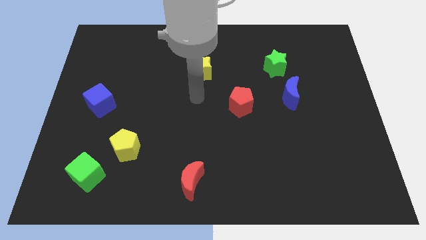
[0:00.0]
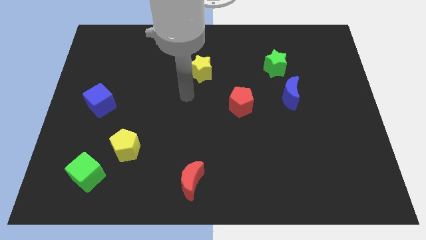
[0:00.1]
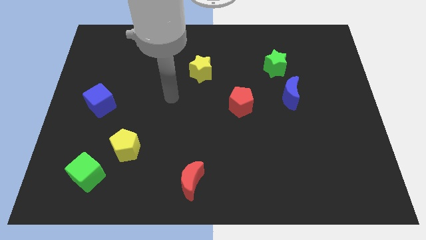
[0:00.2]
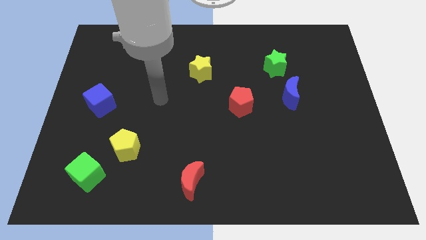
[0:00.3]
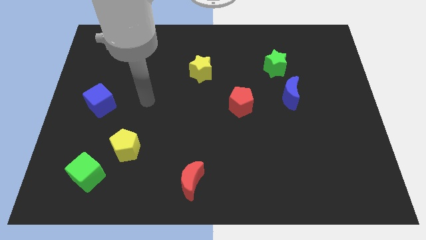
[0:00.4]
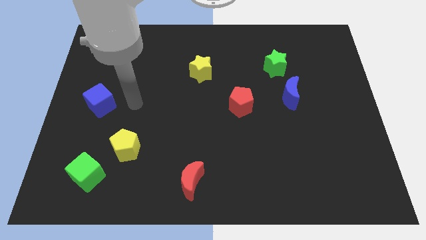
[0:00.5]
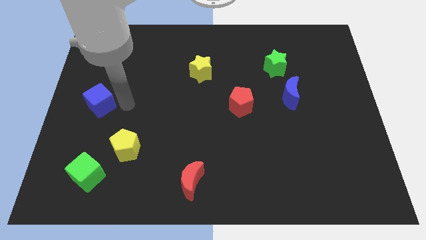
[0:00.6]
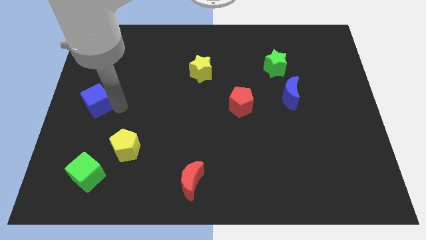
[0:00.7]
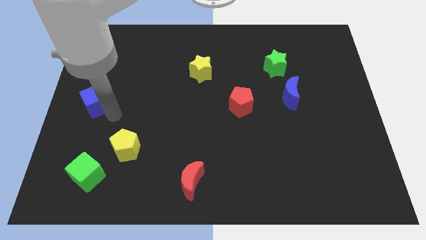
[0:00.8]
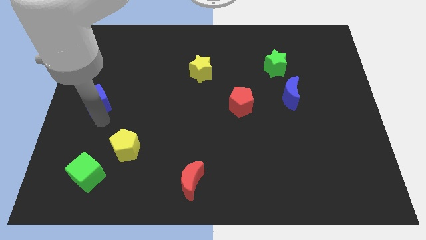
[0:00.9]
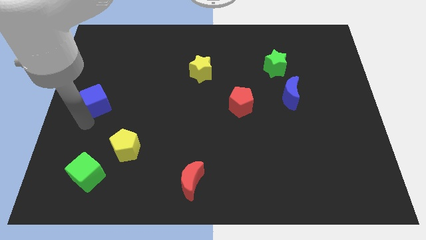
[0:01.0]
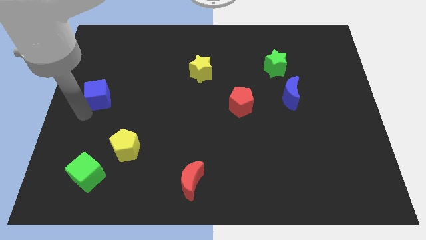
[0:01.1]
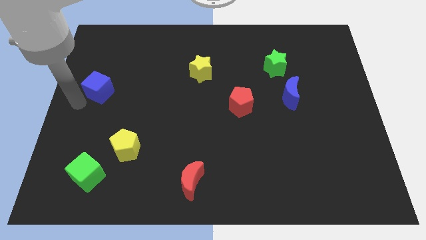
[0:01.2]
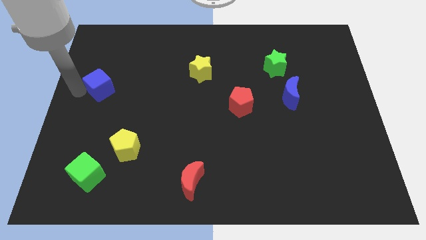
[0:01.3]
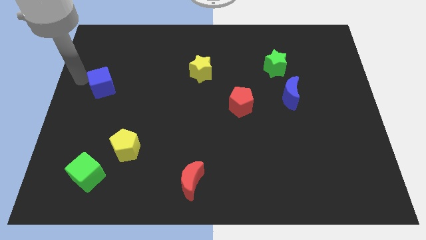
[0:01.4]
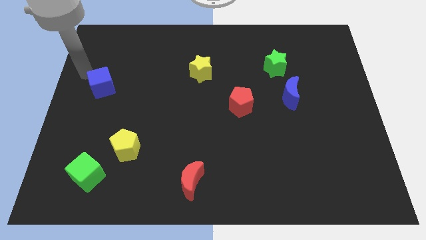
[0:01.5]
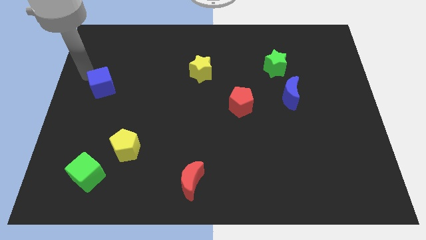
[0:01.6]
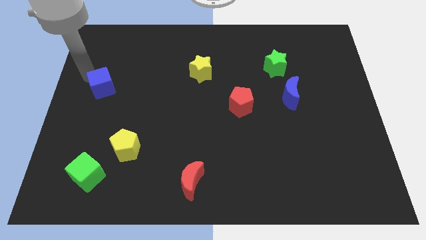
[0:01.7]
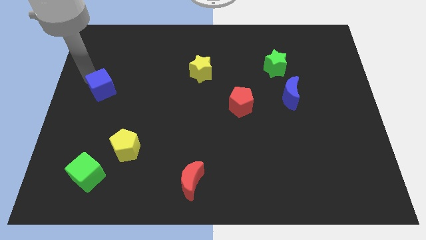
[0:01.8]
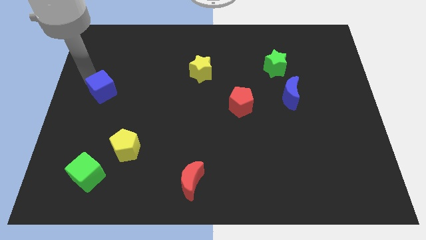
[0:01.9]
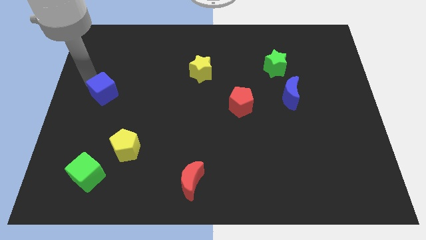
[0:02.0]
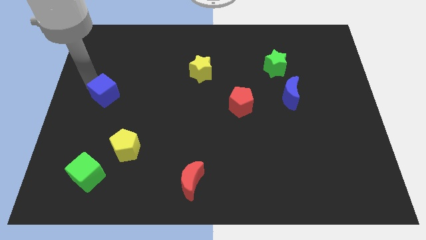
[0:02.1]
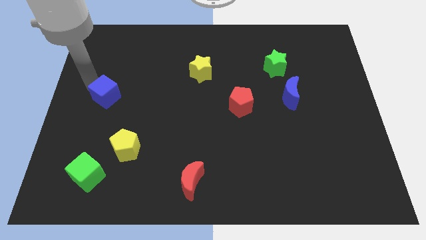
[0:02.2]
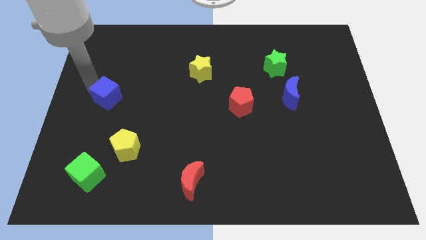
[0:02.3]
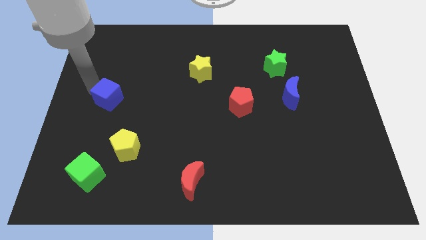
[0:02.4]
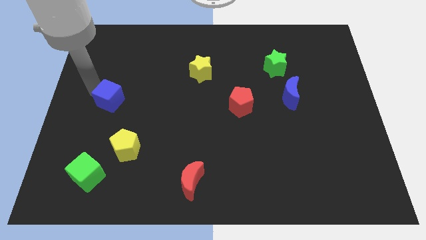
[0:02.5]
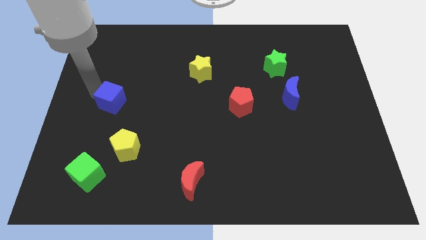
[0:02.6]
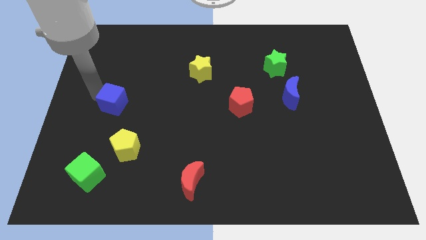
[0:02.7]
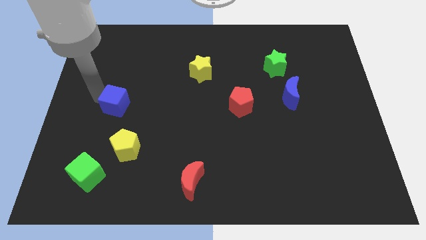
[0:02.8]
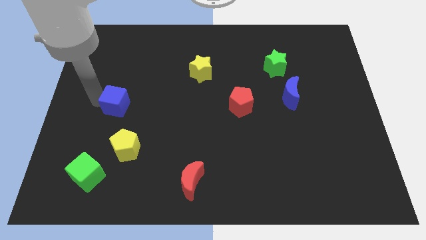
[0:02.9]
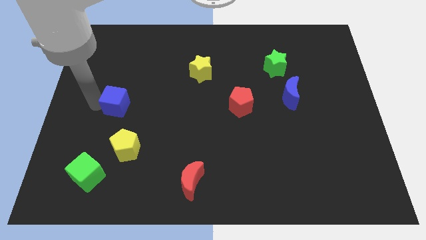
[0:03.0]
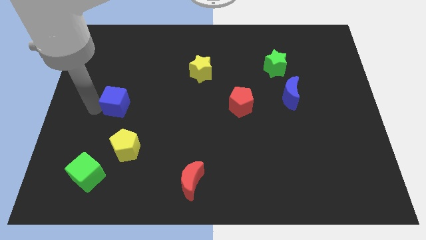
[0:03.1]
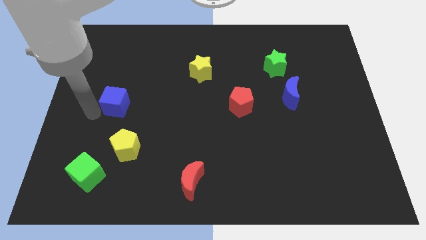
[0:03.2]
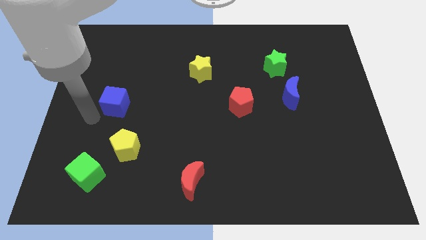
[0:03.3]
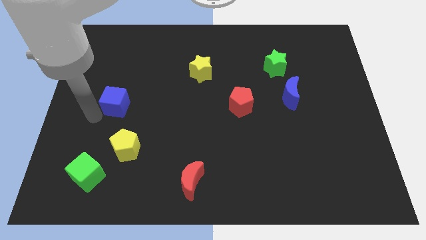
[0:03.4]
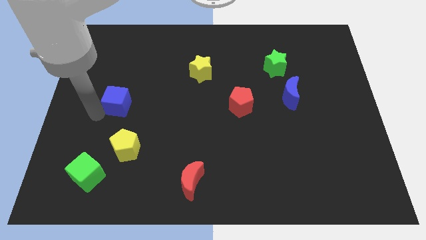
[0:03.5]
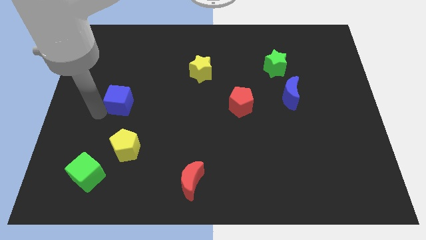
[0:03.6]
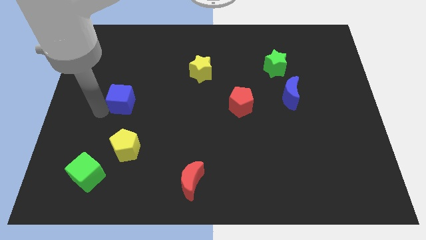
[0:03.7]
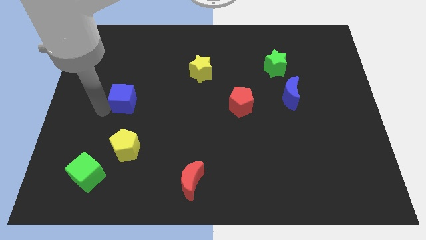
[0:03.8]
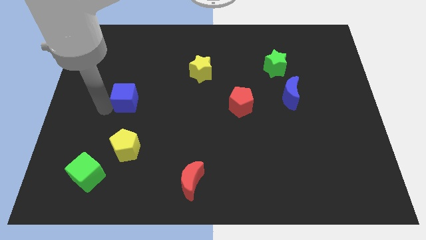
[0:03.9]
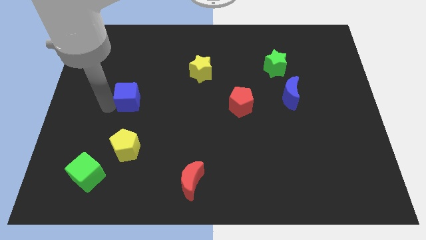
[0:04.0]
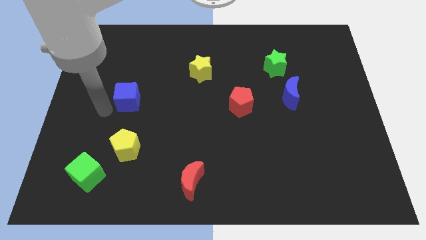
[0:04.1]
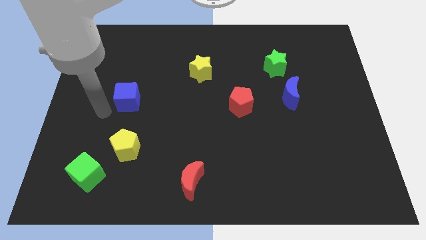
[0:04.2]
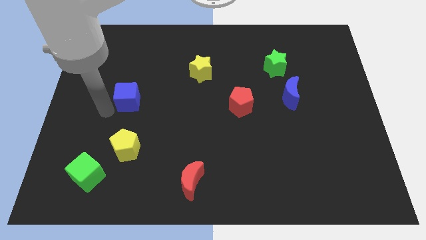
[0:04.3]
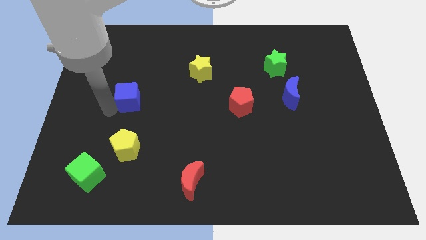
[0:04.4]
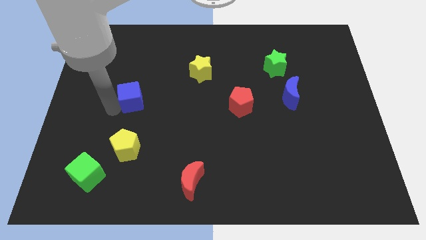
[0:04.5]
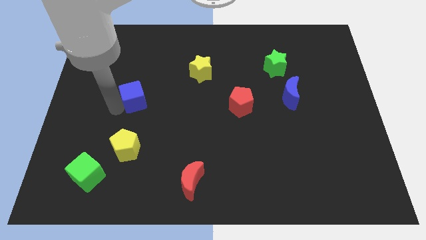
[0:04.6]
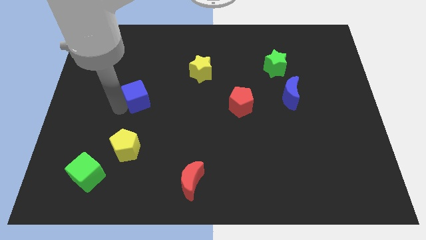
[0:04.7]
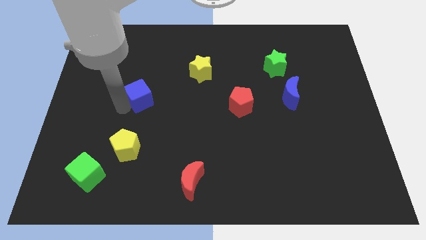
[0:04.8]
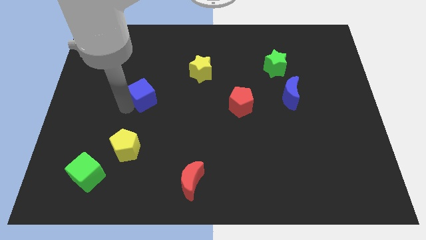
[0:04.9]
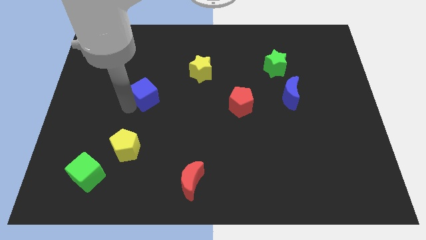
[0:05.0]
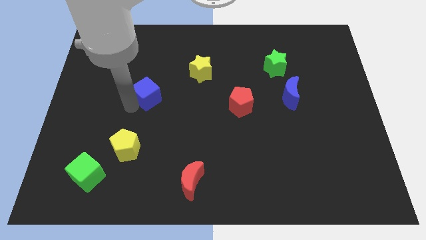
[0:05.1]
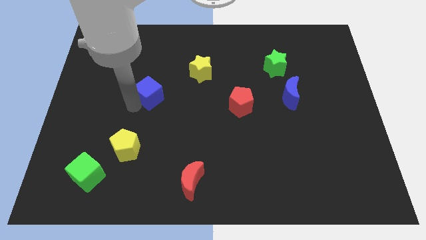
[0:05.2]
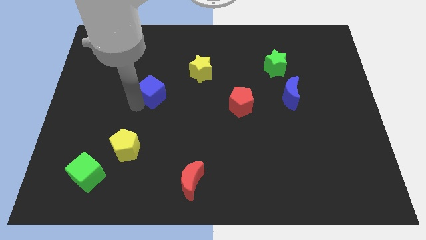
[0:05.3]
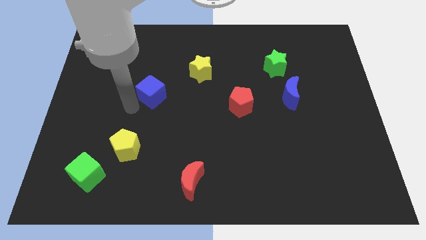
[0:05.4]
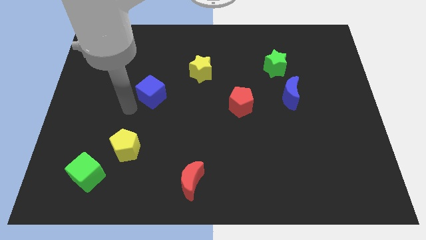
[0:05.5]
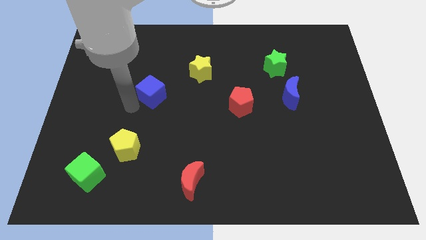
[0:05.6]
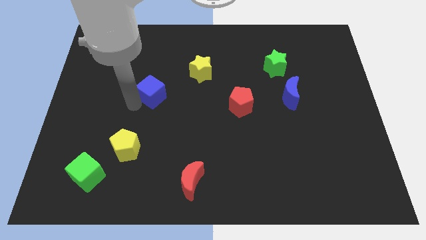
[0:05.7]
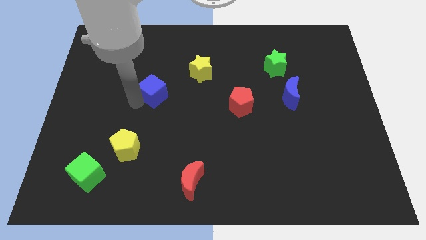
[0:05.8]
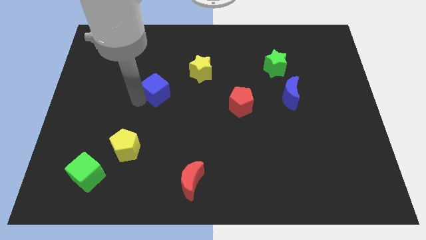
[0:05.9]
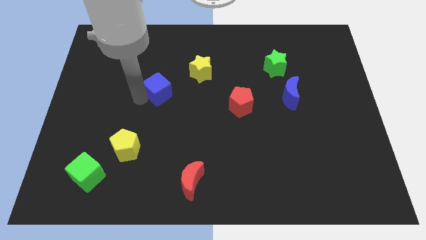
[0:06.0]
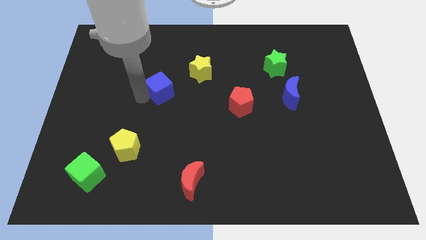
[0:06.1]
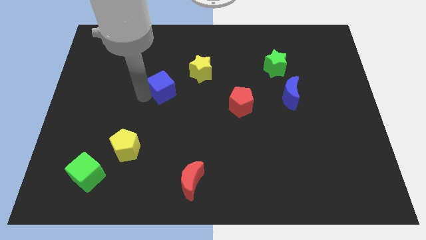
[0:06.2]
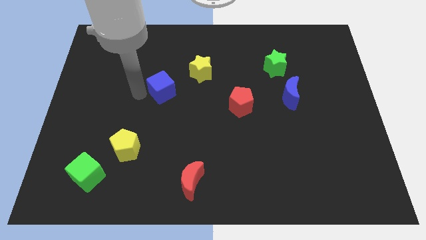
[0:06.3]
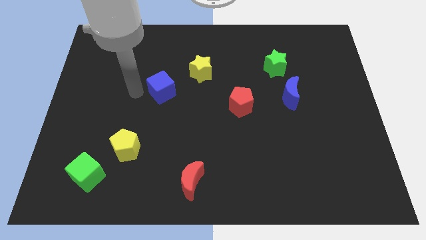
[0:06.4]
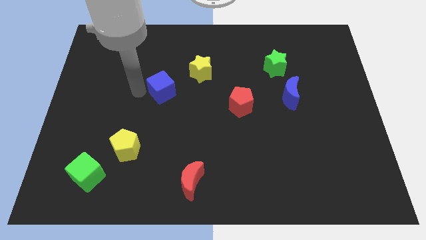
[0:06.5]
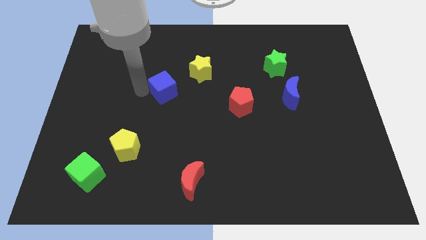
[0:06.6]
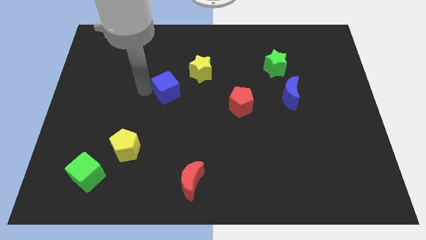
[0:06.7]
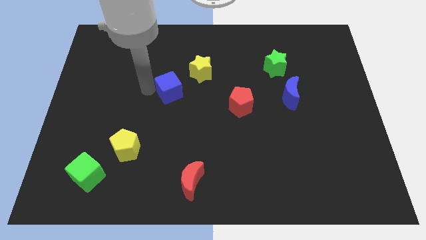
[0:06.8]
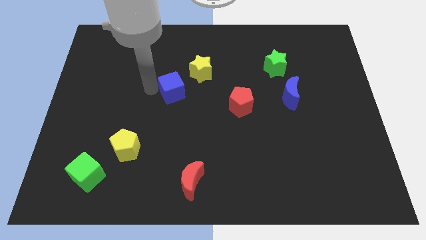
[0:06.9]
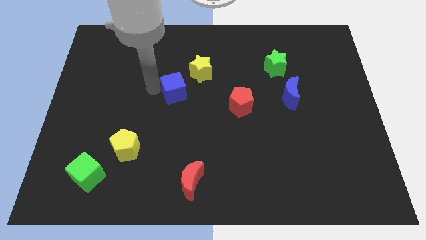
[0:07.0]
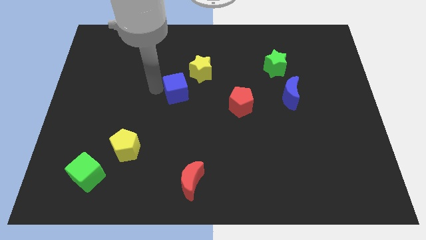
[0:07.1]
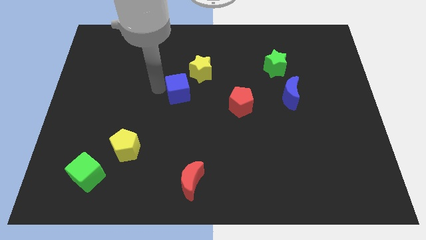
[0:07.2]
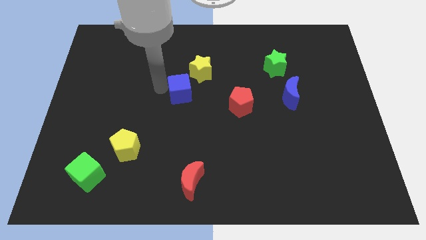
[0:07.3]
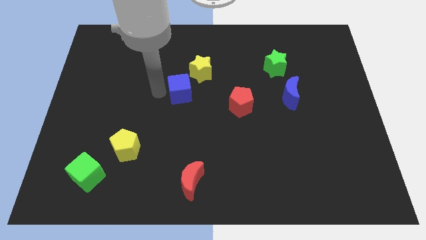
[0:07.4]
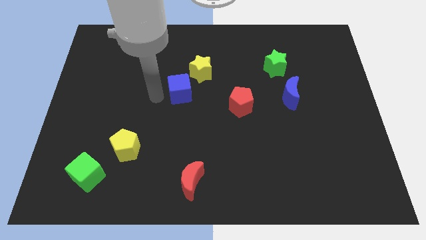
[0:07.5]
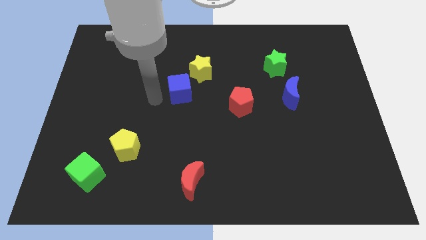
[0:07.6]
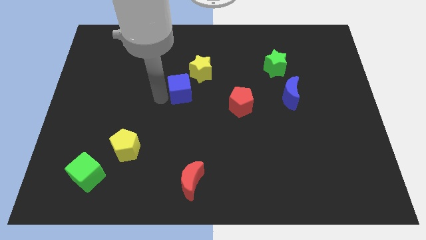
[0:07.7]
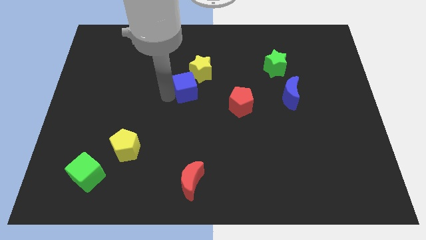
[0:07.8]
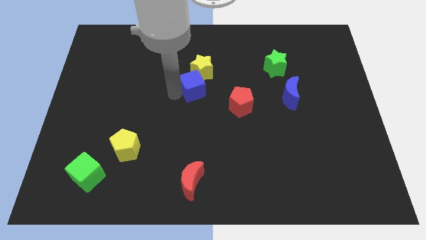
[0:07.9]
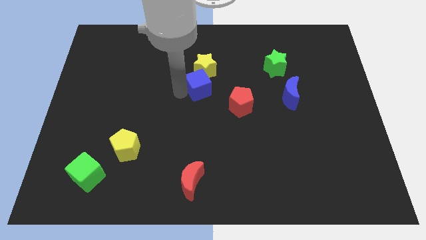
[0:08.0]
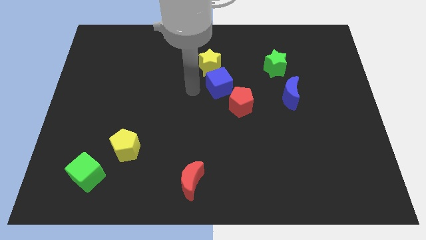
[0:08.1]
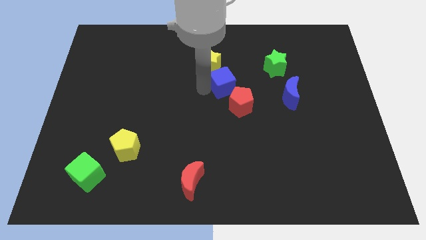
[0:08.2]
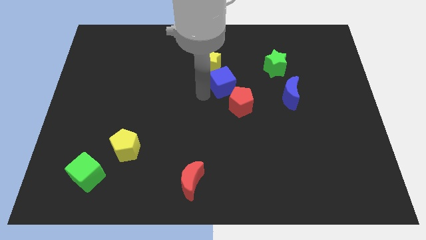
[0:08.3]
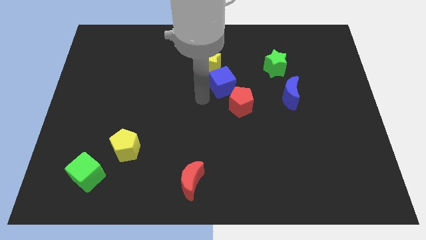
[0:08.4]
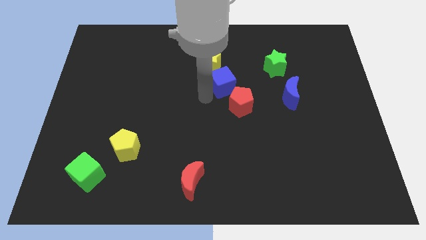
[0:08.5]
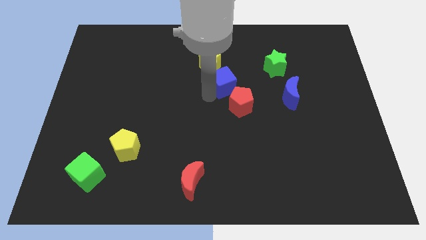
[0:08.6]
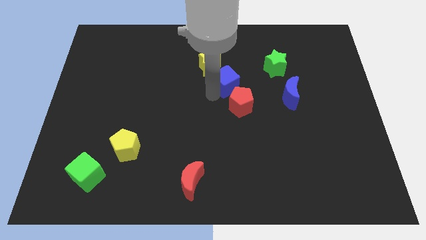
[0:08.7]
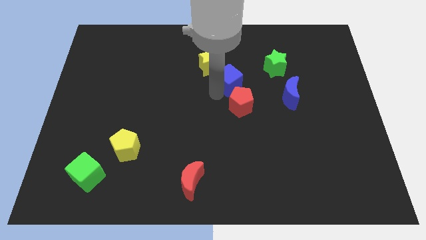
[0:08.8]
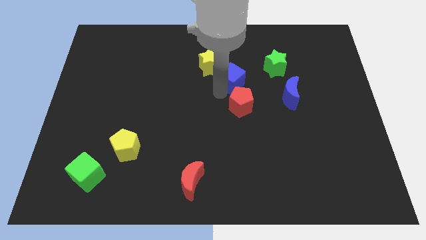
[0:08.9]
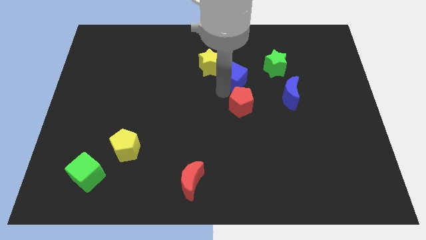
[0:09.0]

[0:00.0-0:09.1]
move the blue cube to the right of the yellow star
